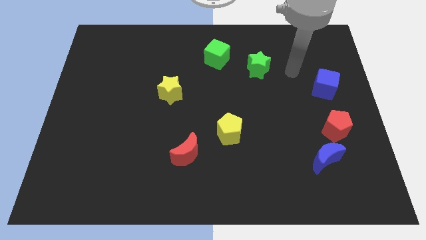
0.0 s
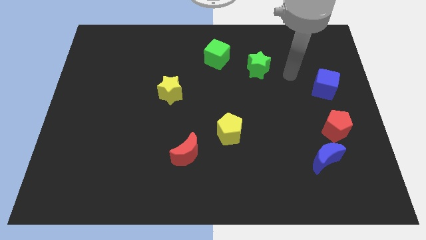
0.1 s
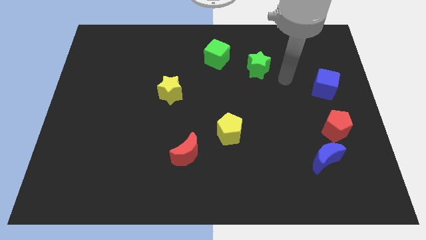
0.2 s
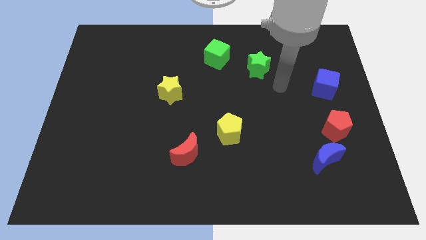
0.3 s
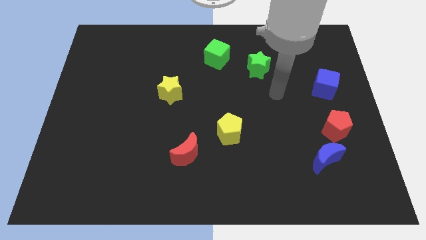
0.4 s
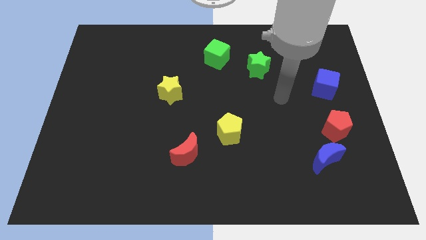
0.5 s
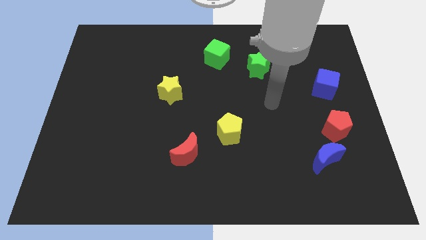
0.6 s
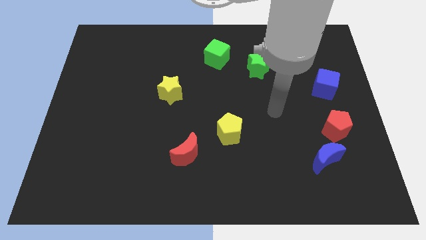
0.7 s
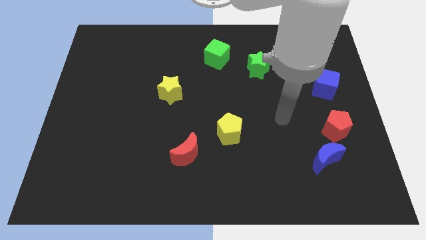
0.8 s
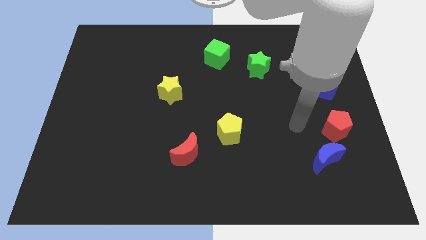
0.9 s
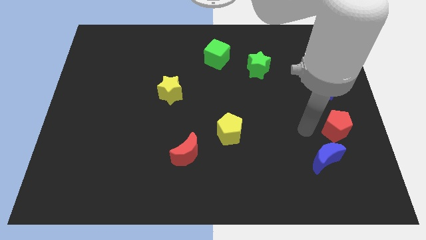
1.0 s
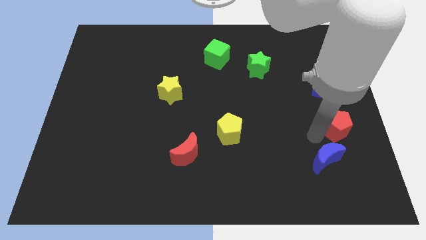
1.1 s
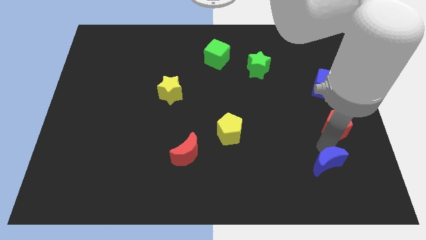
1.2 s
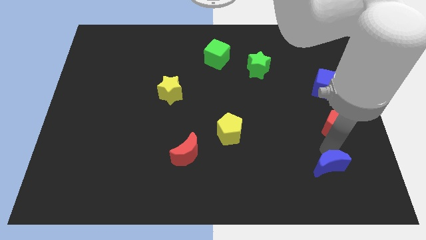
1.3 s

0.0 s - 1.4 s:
separate the red pentagon from the blue moon

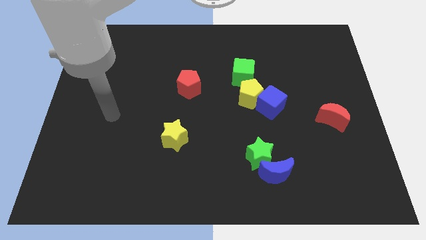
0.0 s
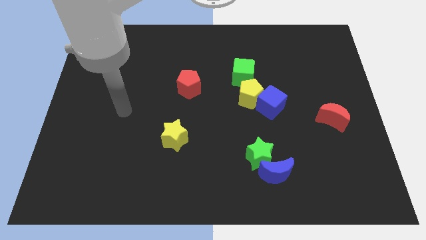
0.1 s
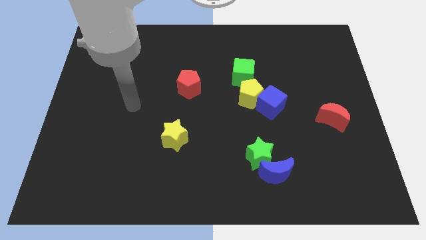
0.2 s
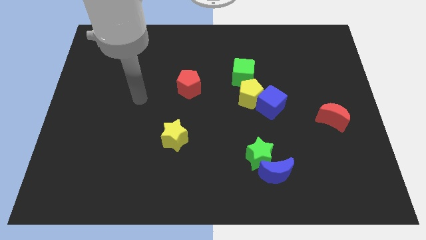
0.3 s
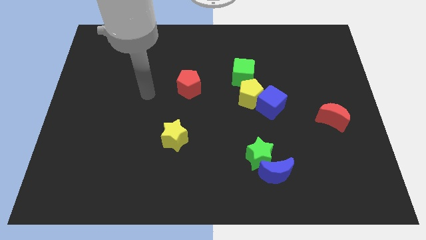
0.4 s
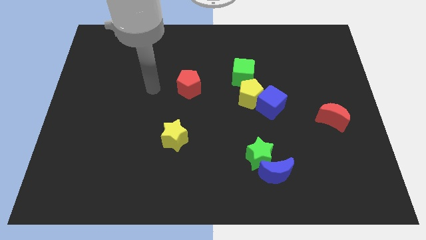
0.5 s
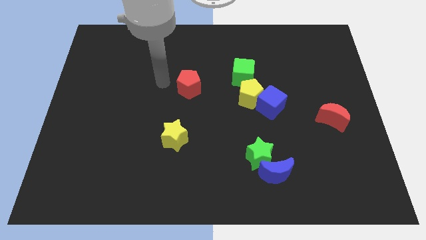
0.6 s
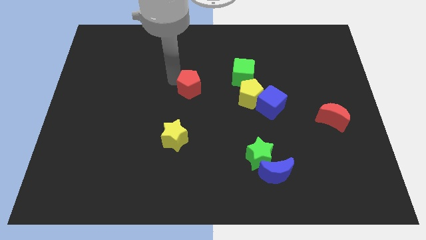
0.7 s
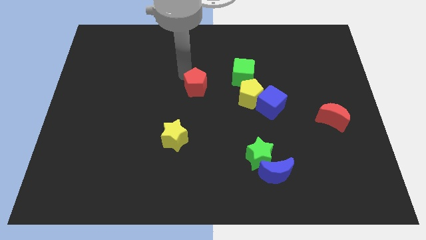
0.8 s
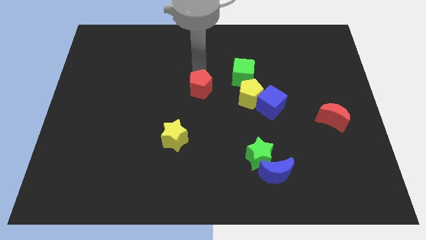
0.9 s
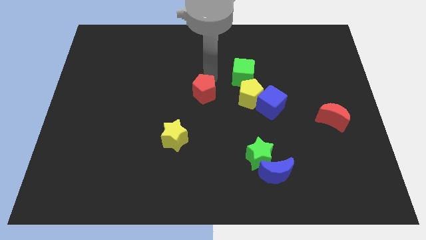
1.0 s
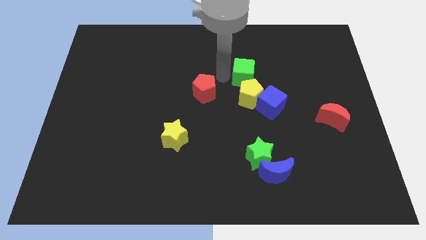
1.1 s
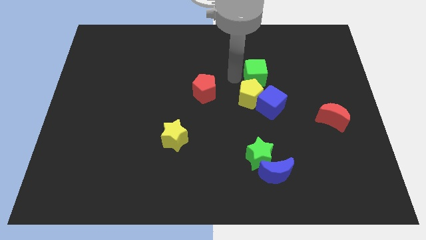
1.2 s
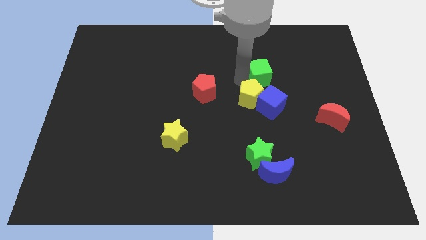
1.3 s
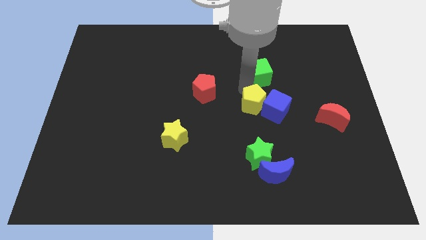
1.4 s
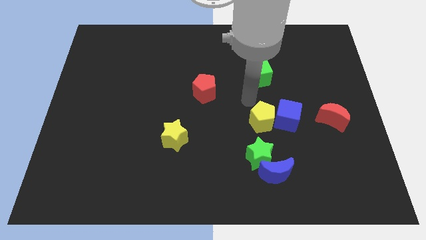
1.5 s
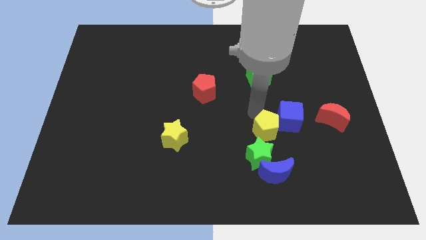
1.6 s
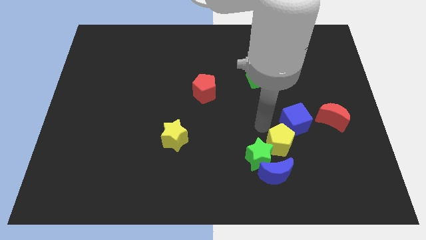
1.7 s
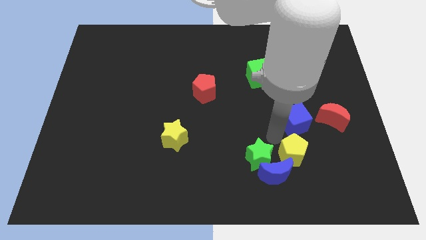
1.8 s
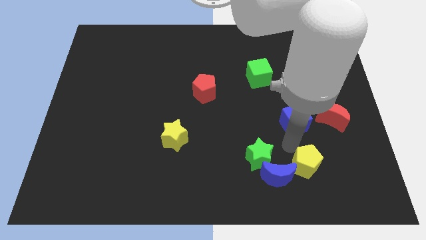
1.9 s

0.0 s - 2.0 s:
pull the blue cube apart from the yellow pentagon

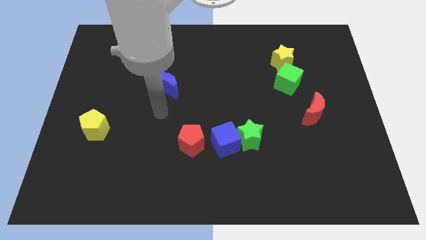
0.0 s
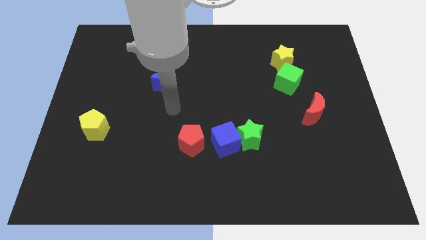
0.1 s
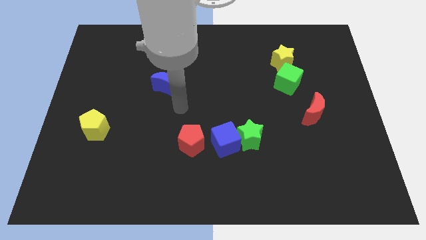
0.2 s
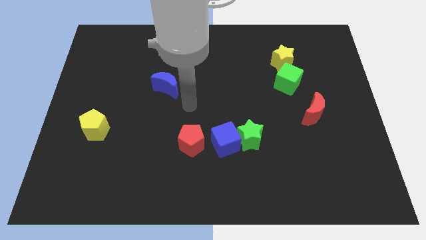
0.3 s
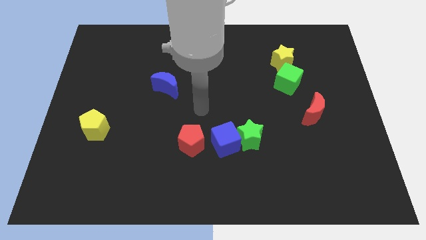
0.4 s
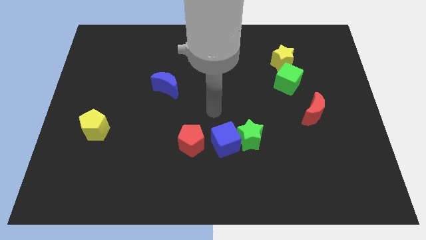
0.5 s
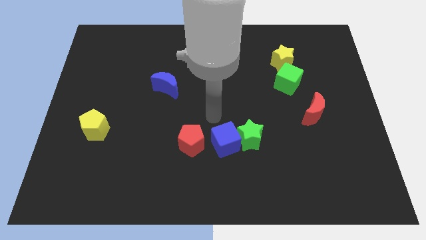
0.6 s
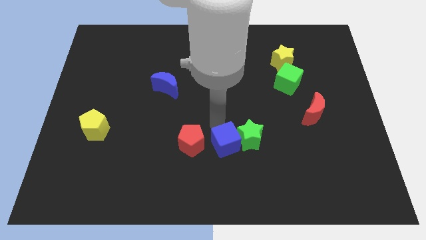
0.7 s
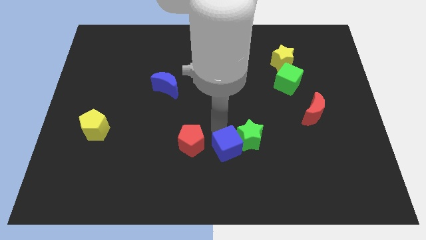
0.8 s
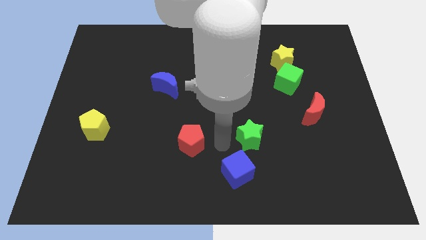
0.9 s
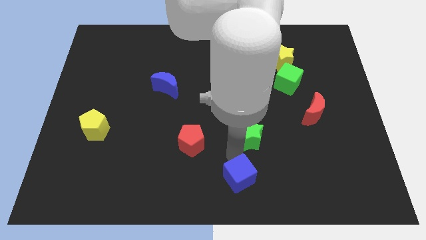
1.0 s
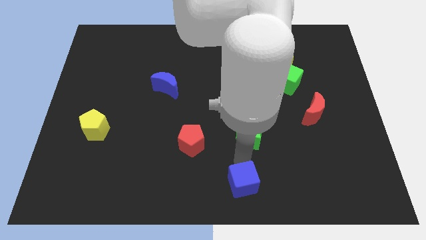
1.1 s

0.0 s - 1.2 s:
pull the green star apart from the blue cube

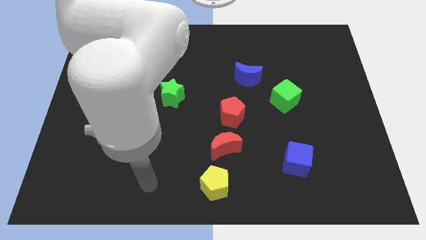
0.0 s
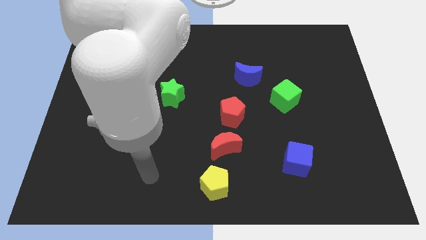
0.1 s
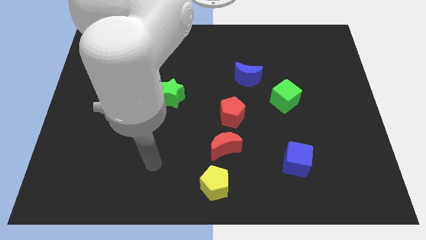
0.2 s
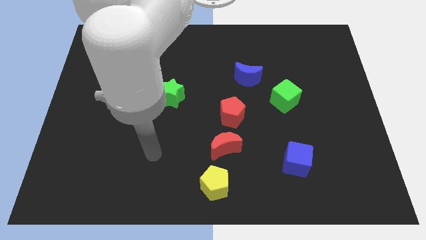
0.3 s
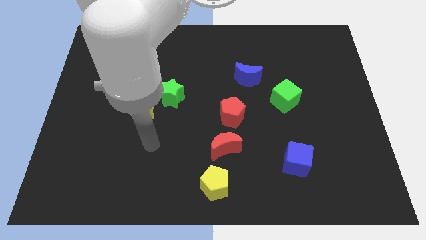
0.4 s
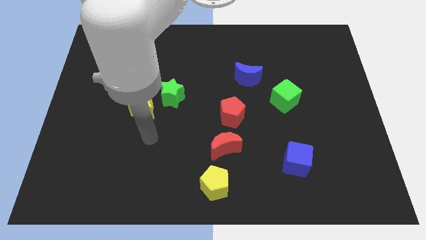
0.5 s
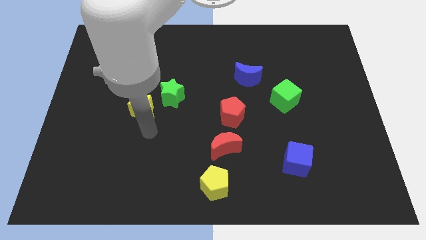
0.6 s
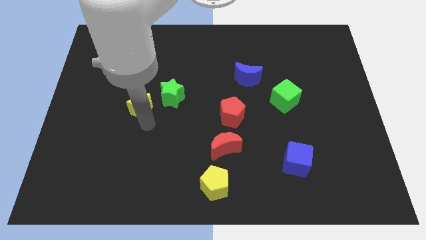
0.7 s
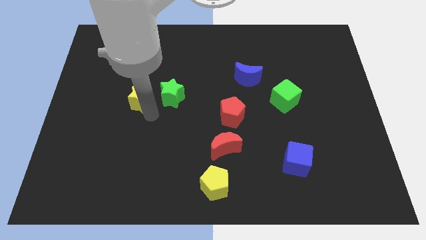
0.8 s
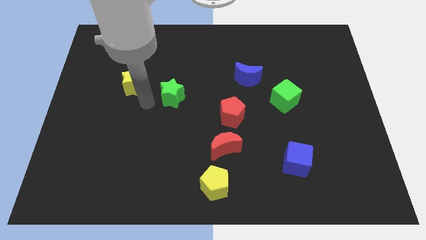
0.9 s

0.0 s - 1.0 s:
separate the green star from the yellow star

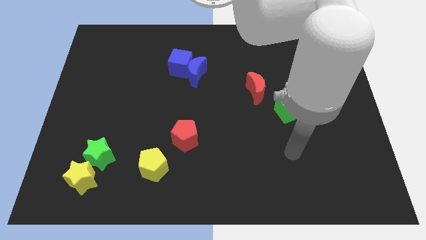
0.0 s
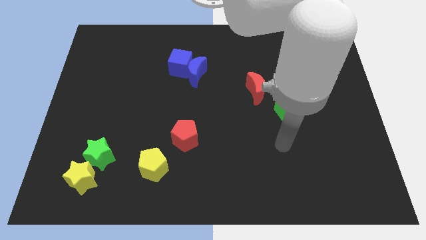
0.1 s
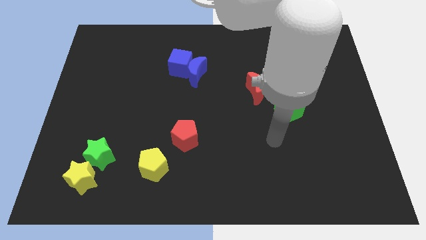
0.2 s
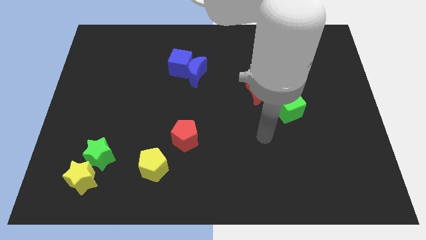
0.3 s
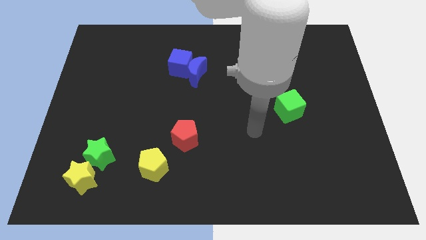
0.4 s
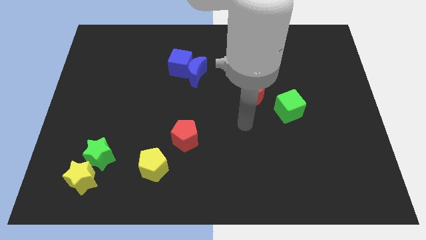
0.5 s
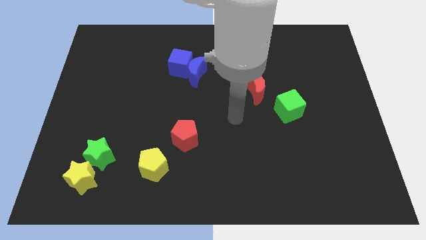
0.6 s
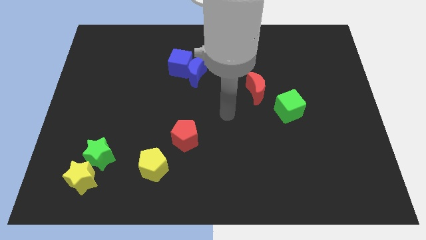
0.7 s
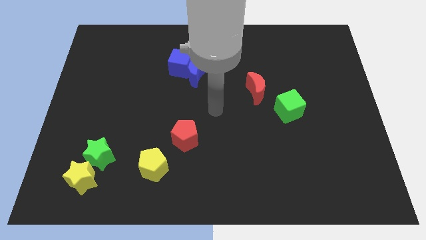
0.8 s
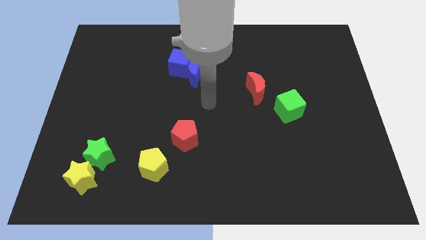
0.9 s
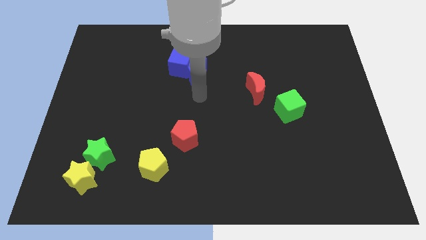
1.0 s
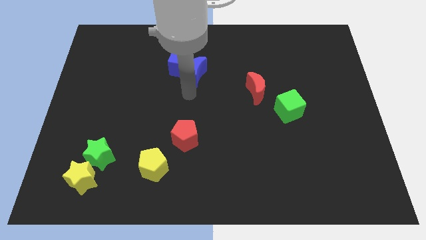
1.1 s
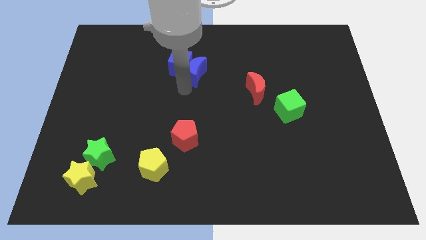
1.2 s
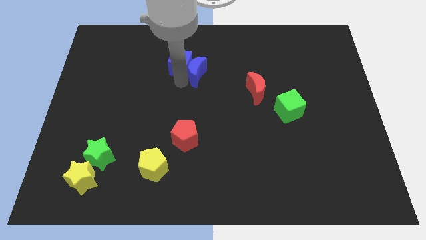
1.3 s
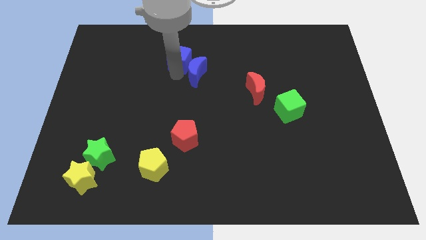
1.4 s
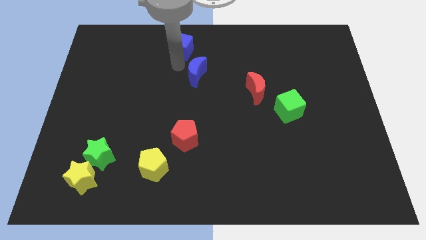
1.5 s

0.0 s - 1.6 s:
move the blue moon away from the blue cube

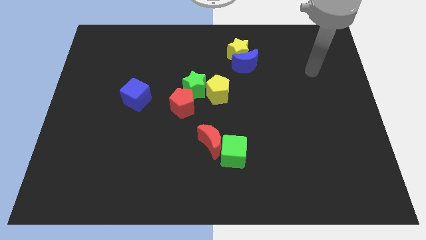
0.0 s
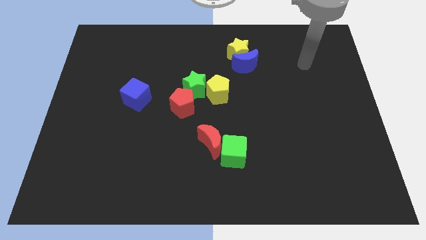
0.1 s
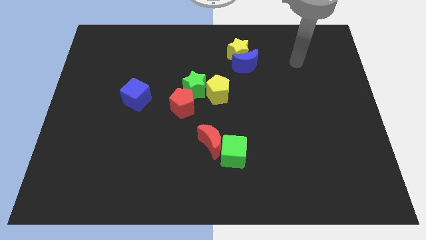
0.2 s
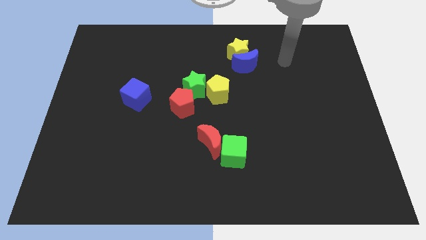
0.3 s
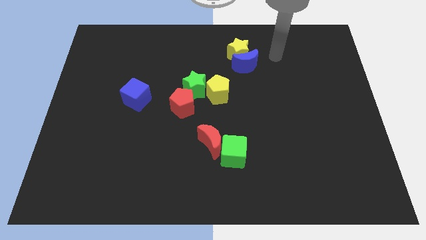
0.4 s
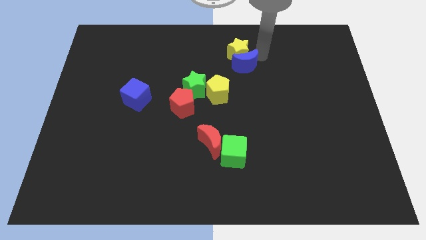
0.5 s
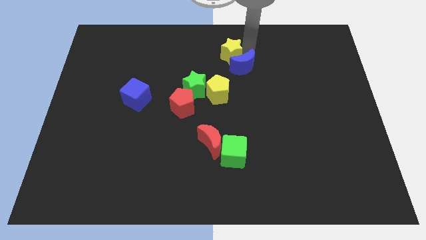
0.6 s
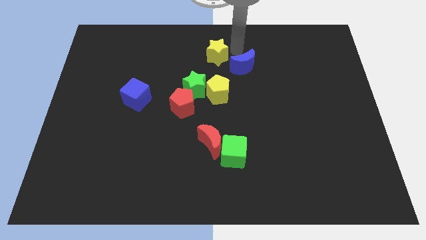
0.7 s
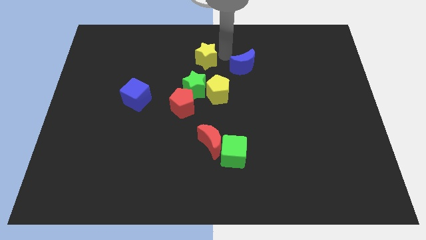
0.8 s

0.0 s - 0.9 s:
move the blue moon away from the yellow star

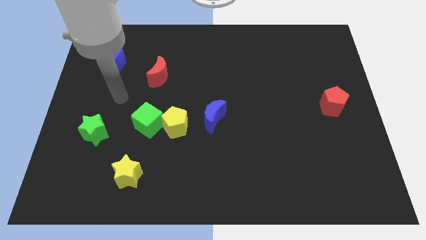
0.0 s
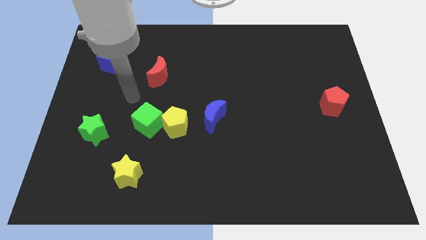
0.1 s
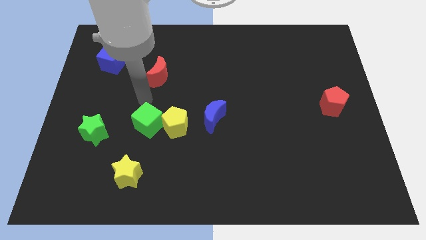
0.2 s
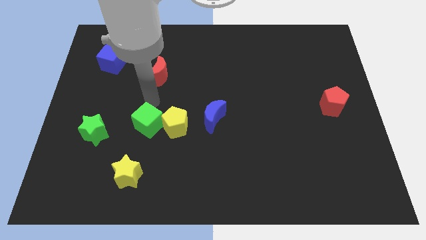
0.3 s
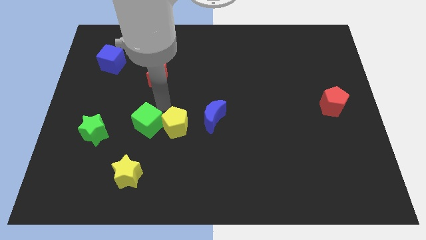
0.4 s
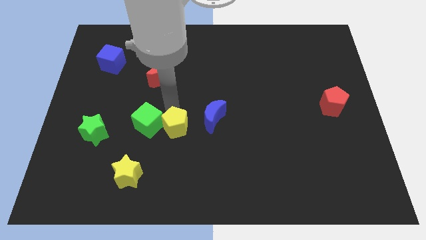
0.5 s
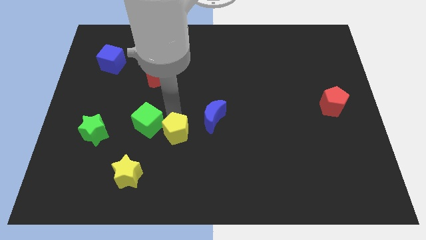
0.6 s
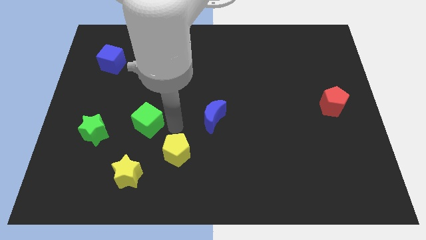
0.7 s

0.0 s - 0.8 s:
separate the green cube from the yellow pentagon

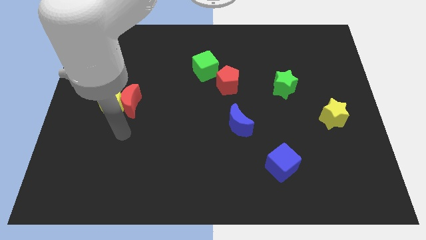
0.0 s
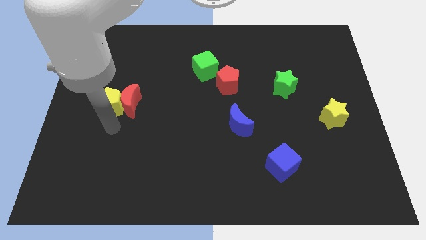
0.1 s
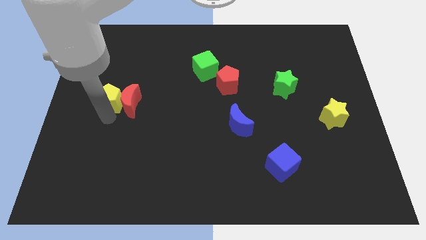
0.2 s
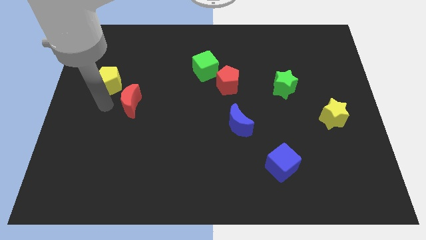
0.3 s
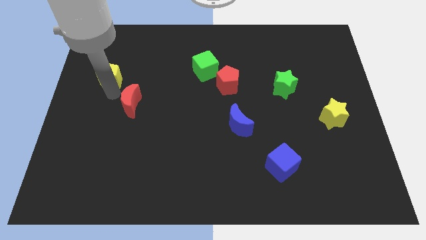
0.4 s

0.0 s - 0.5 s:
move the red moon away from the yellow pentagon
